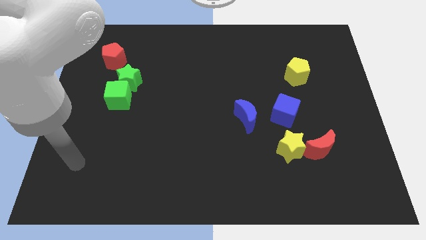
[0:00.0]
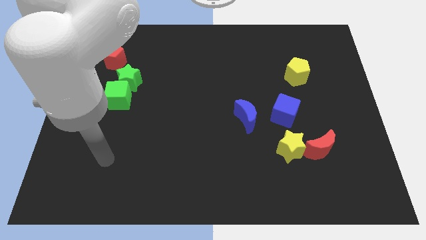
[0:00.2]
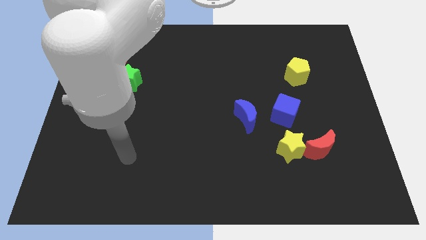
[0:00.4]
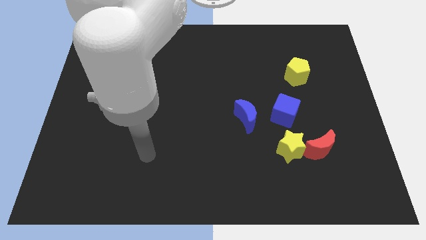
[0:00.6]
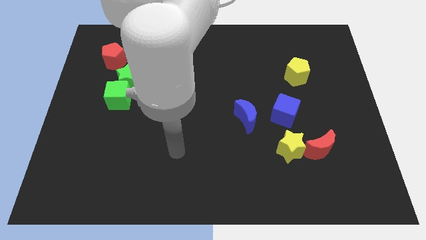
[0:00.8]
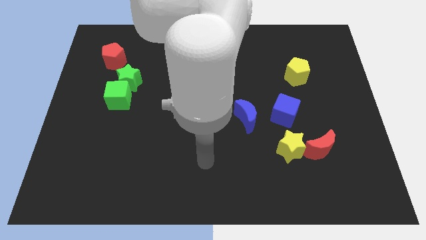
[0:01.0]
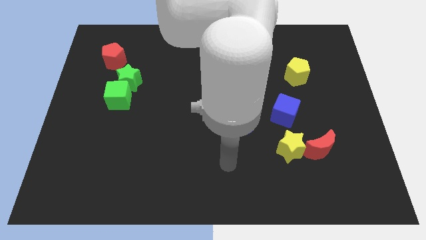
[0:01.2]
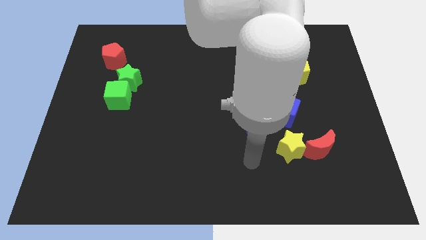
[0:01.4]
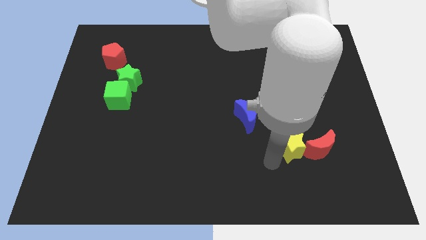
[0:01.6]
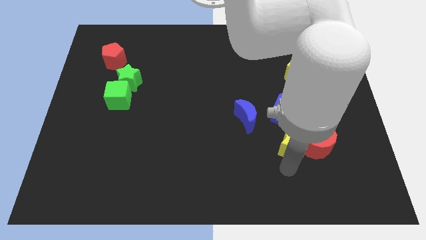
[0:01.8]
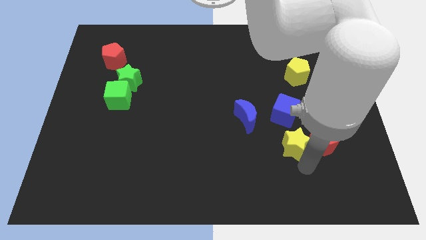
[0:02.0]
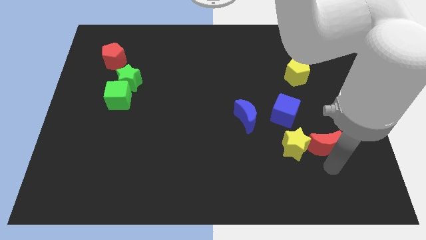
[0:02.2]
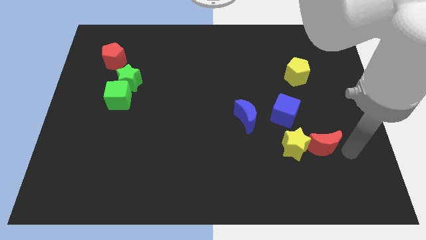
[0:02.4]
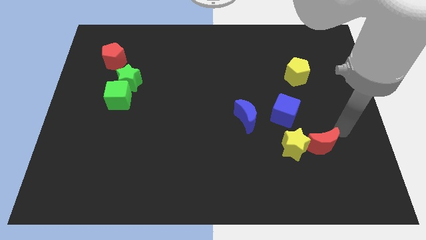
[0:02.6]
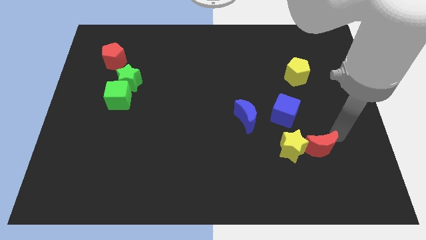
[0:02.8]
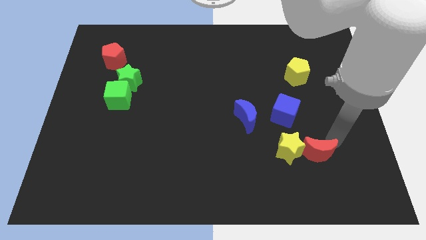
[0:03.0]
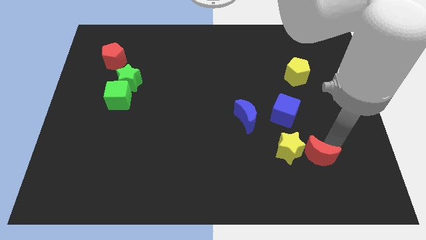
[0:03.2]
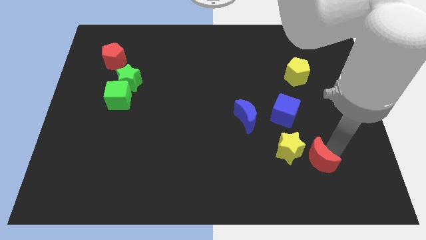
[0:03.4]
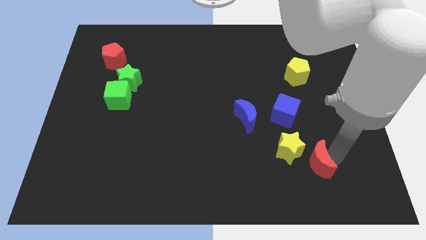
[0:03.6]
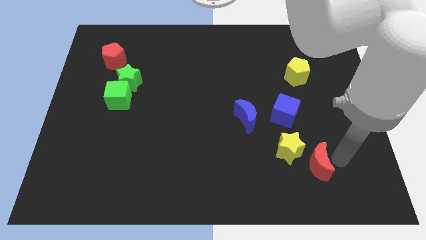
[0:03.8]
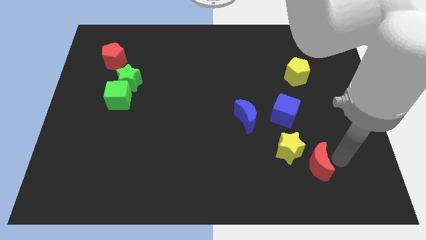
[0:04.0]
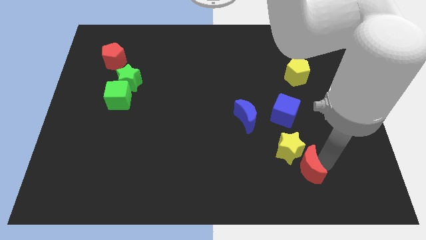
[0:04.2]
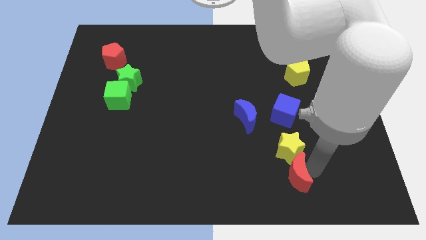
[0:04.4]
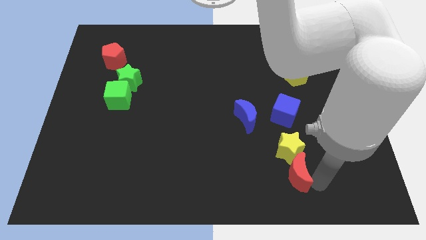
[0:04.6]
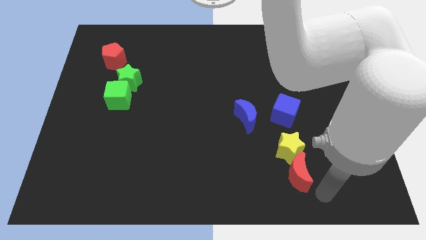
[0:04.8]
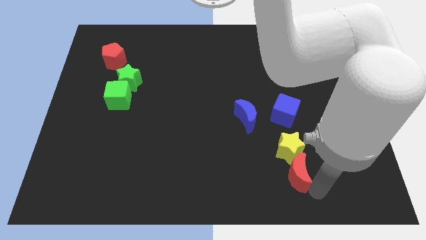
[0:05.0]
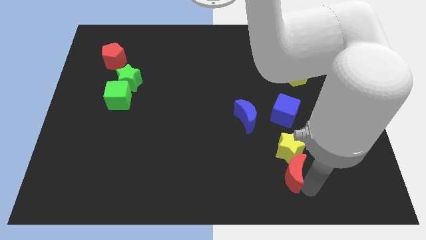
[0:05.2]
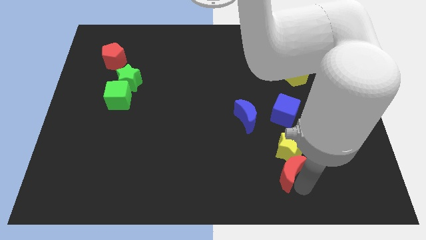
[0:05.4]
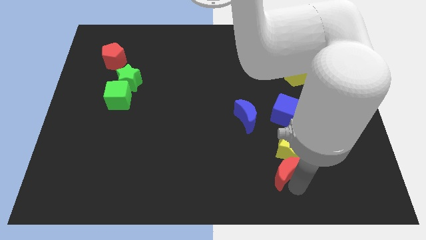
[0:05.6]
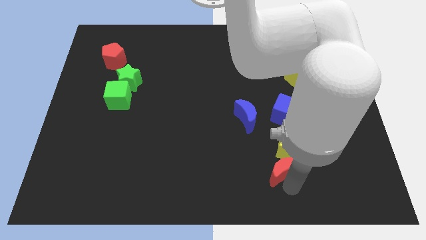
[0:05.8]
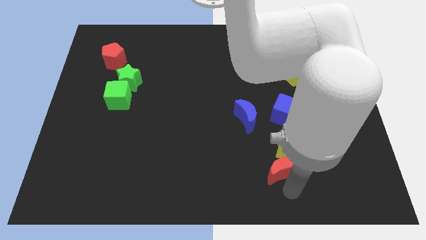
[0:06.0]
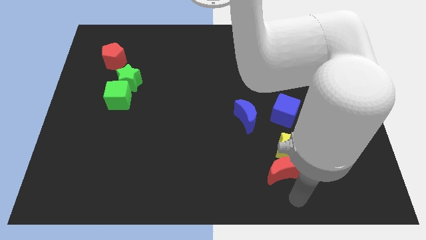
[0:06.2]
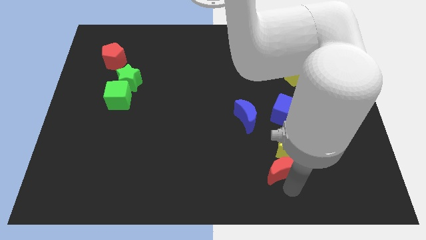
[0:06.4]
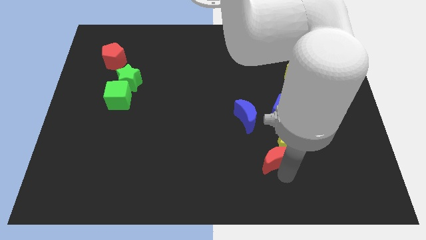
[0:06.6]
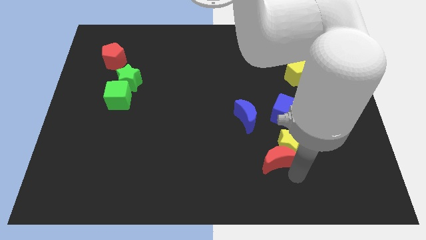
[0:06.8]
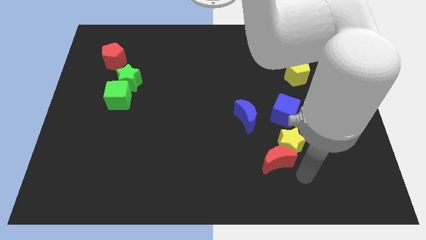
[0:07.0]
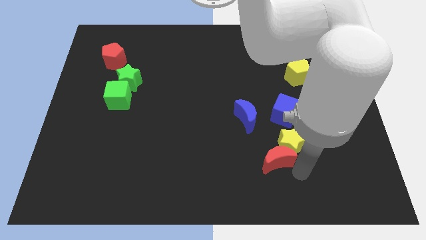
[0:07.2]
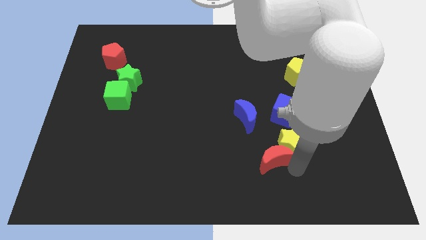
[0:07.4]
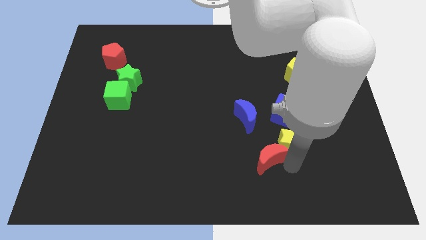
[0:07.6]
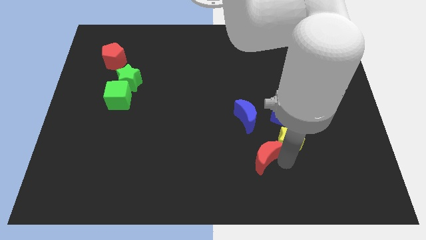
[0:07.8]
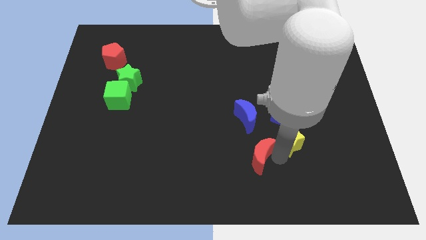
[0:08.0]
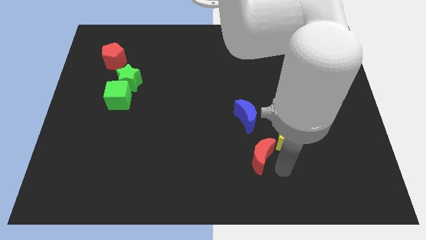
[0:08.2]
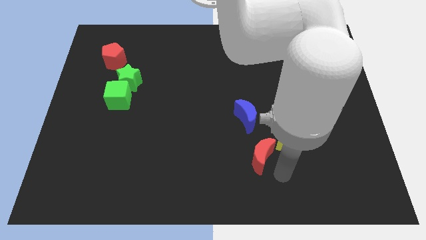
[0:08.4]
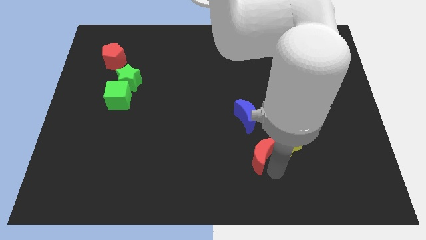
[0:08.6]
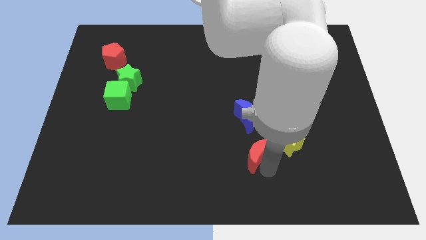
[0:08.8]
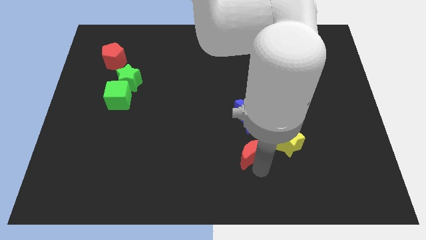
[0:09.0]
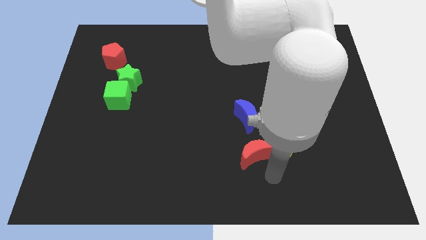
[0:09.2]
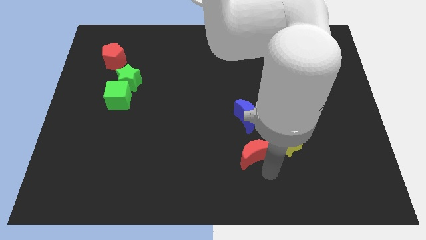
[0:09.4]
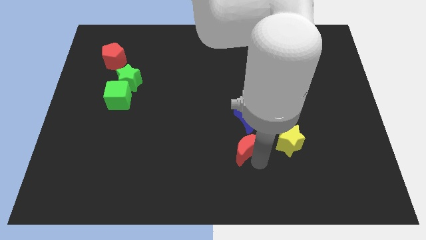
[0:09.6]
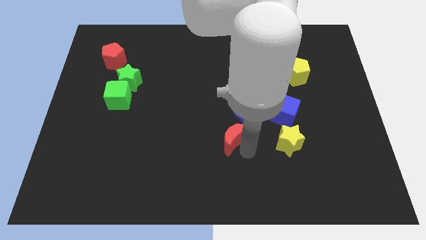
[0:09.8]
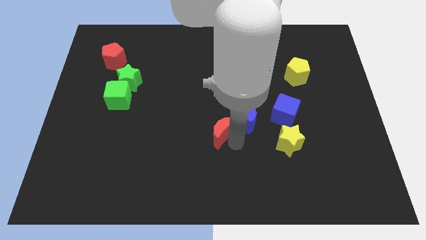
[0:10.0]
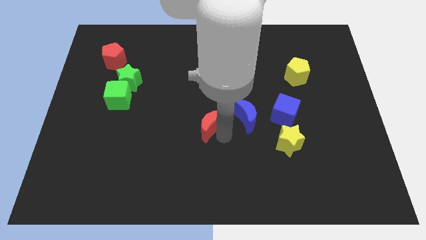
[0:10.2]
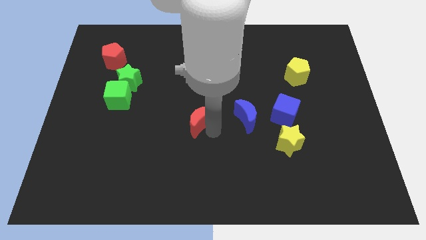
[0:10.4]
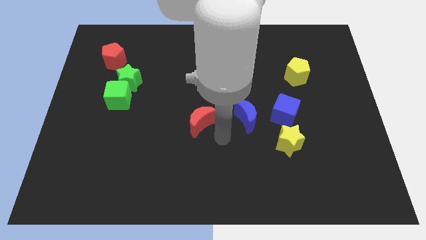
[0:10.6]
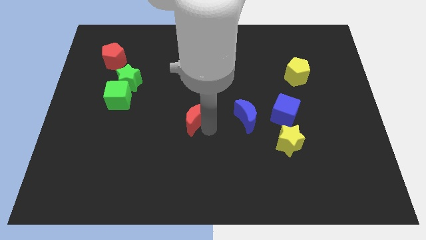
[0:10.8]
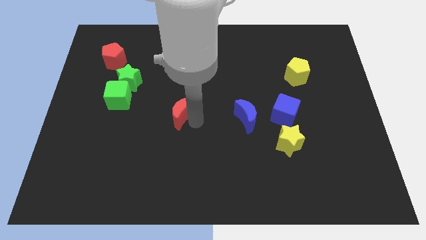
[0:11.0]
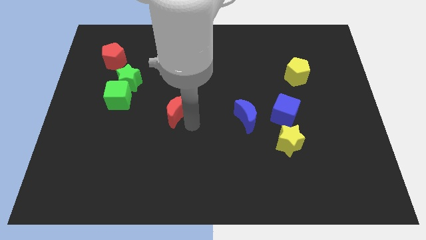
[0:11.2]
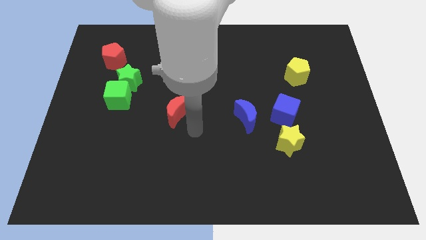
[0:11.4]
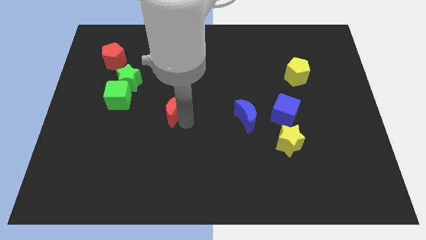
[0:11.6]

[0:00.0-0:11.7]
put the red moon just right of the green cube

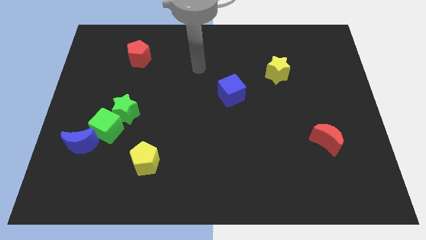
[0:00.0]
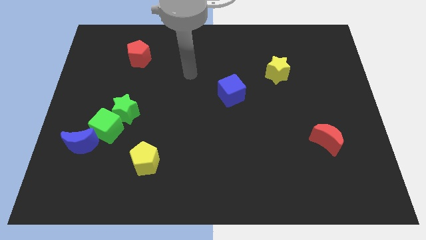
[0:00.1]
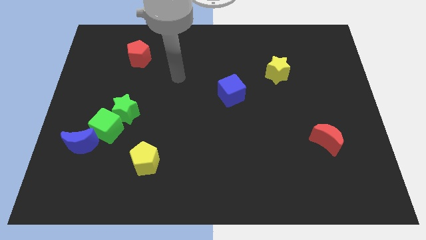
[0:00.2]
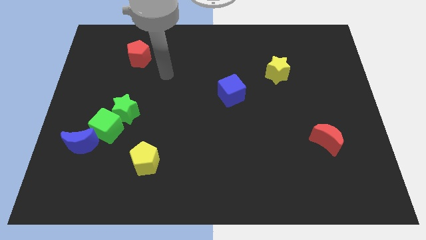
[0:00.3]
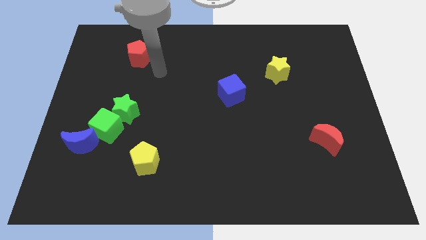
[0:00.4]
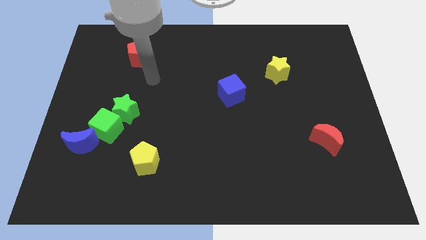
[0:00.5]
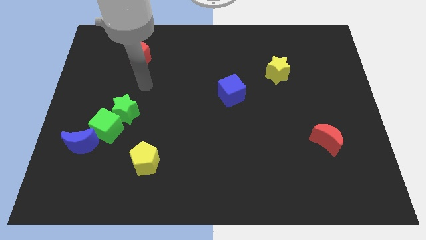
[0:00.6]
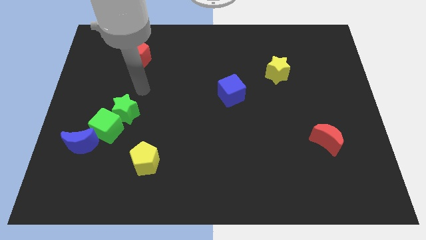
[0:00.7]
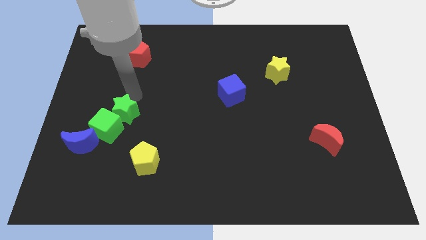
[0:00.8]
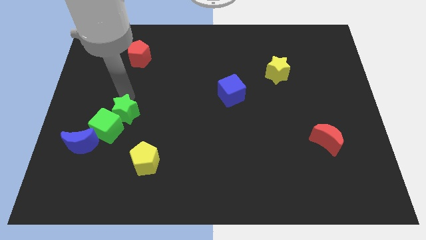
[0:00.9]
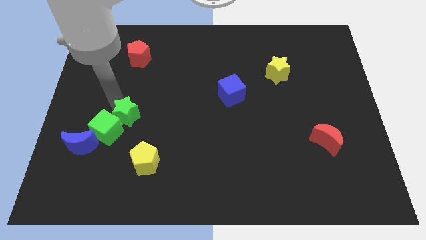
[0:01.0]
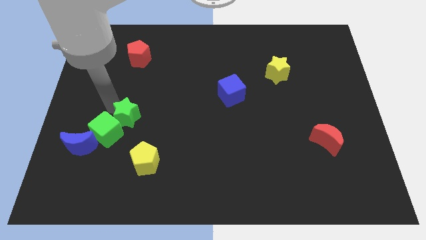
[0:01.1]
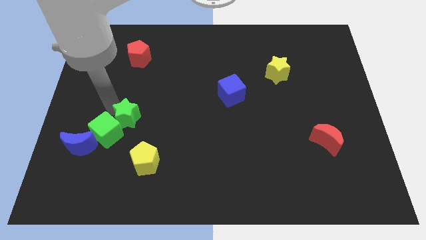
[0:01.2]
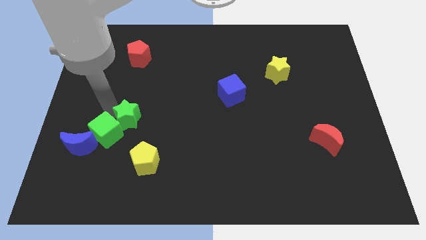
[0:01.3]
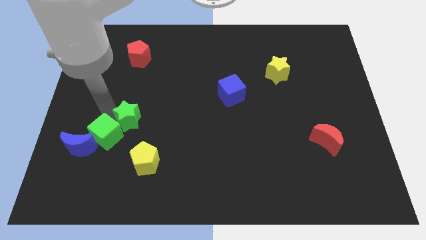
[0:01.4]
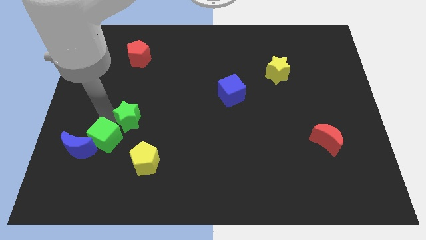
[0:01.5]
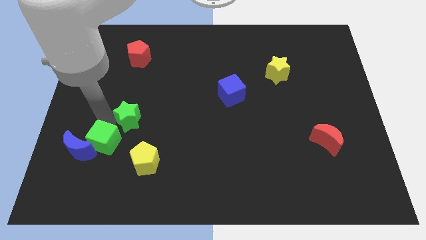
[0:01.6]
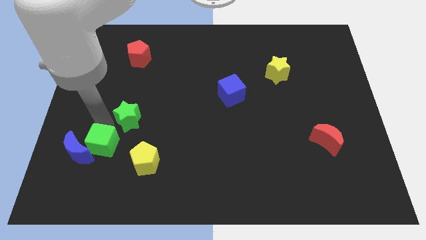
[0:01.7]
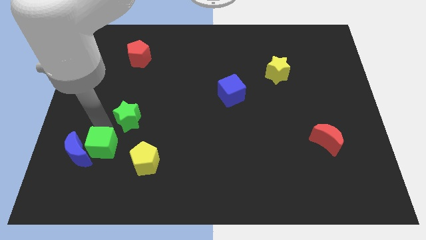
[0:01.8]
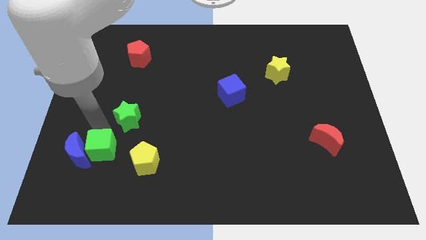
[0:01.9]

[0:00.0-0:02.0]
move the green cube diagonally down and to the right of the blue moon
